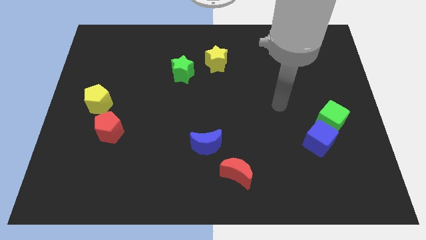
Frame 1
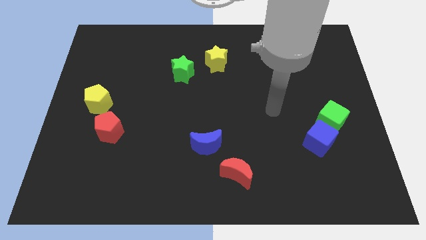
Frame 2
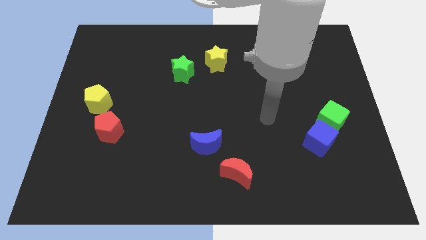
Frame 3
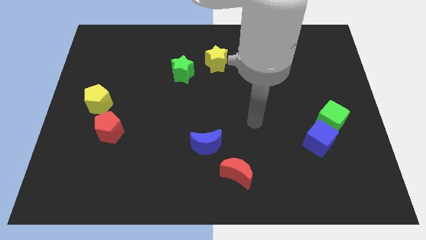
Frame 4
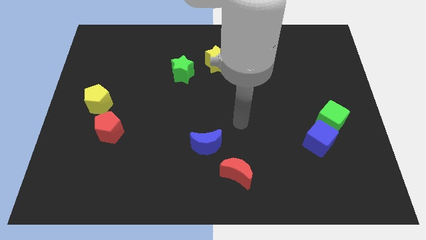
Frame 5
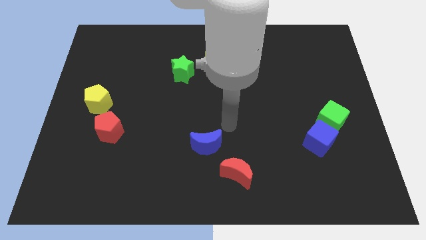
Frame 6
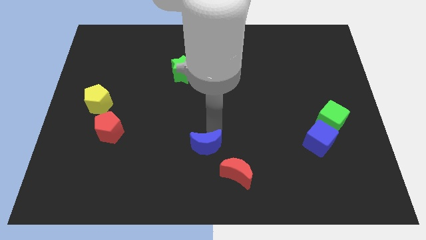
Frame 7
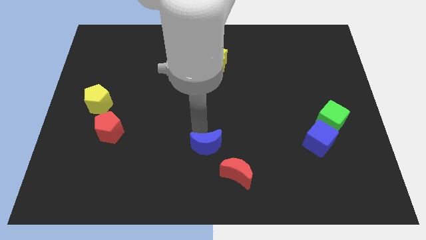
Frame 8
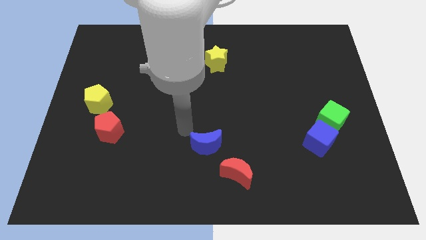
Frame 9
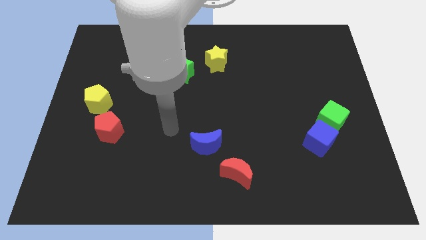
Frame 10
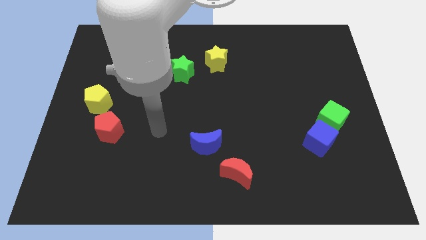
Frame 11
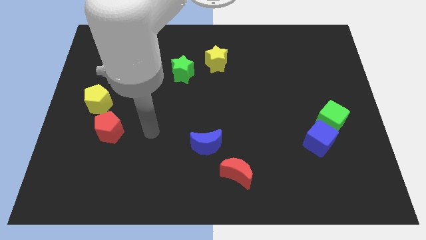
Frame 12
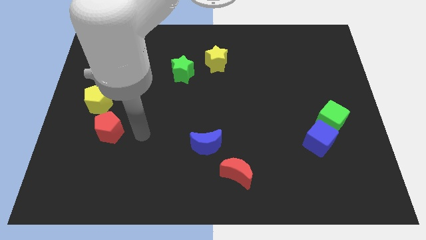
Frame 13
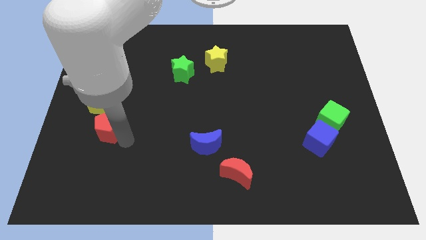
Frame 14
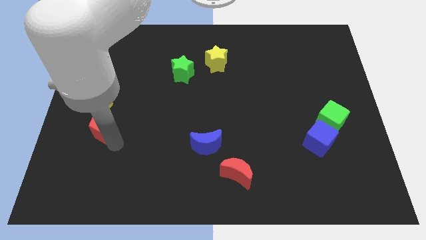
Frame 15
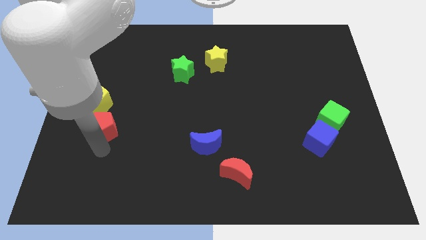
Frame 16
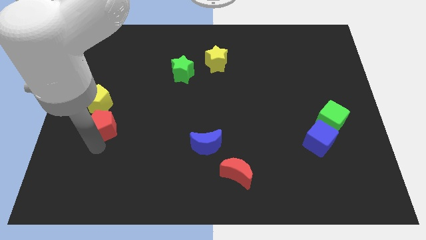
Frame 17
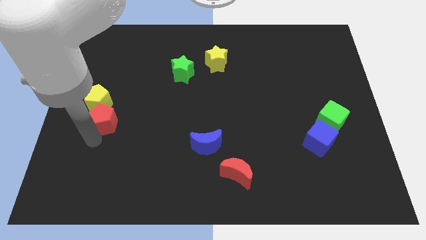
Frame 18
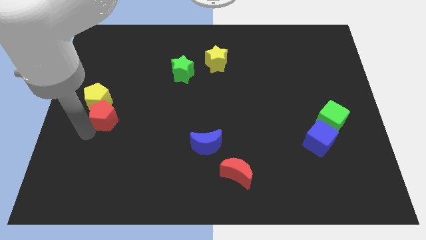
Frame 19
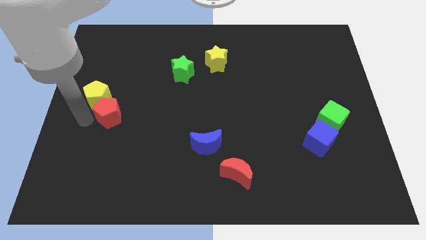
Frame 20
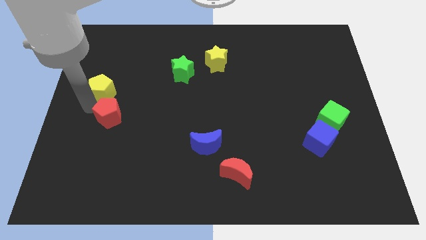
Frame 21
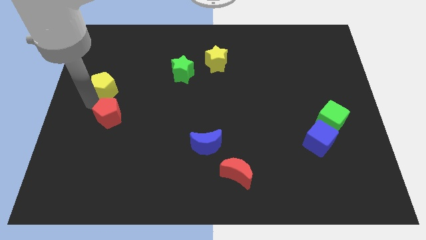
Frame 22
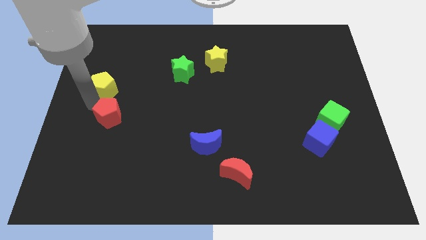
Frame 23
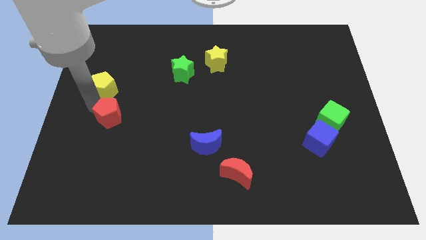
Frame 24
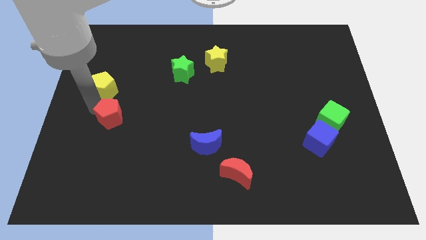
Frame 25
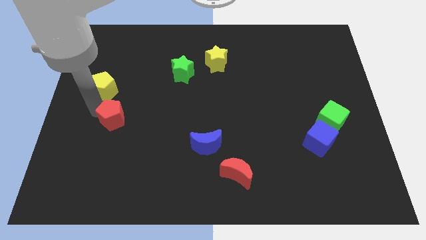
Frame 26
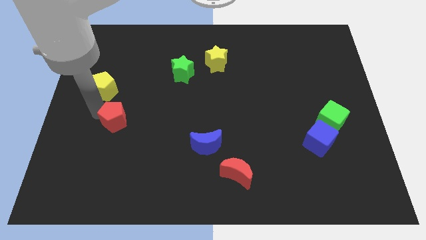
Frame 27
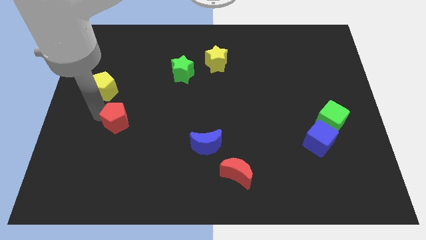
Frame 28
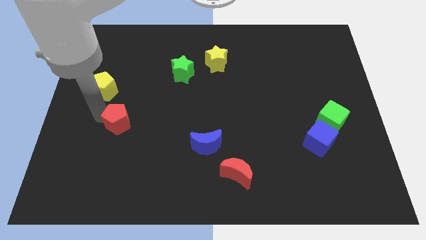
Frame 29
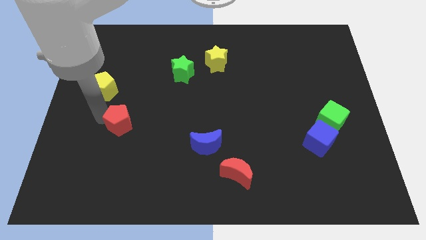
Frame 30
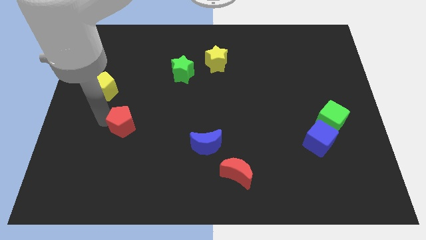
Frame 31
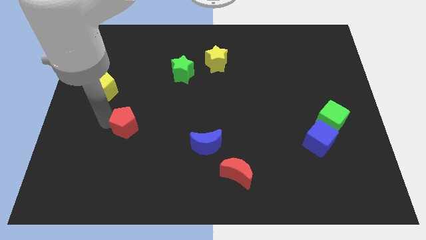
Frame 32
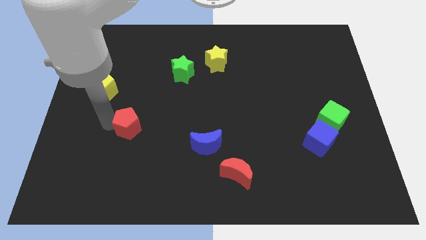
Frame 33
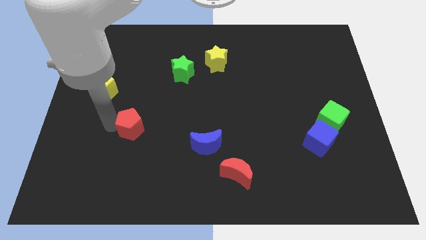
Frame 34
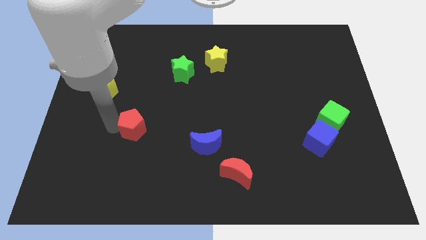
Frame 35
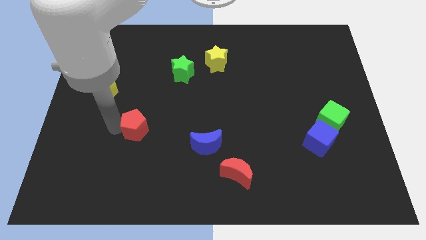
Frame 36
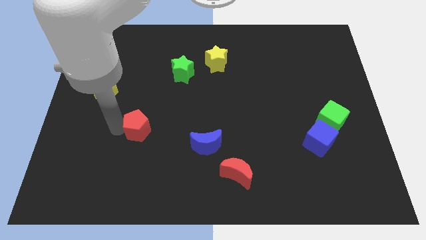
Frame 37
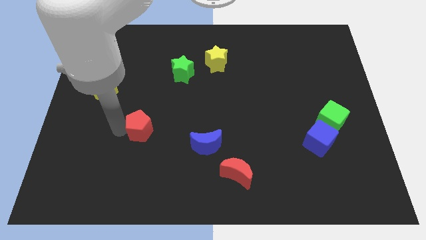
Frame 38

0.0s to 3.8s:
push the red pentagon a little bit to the right

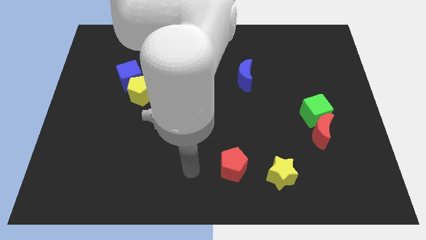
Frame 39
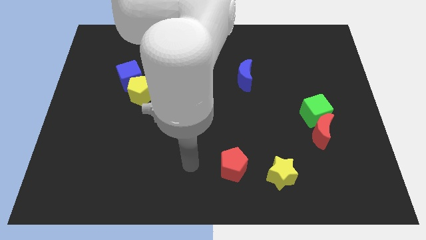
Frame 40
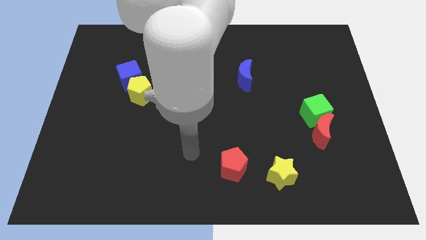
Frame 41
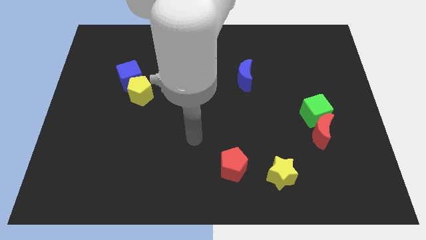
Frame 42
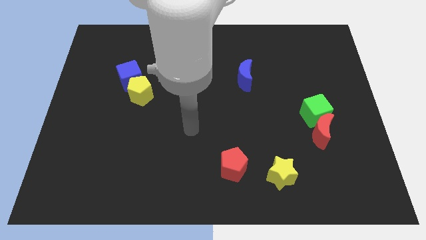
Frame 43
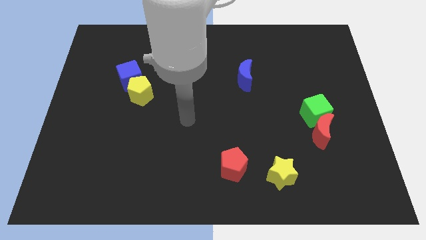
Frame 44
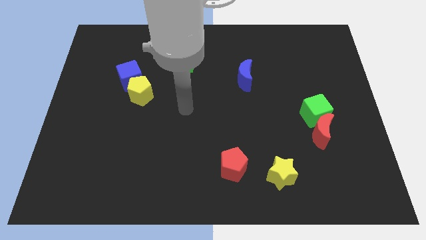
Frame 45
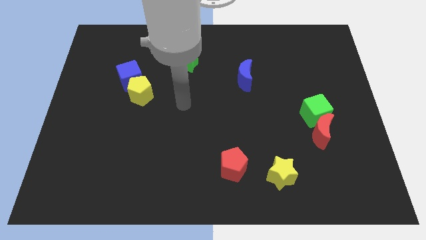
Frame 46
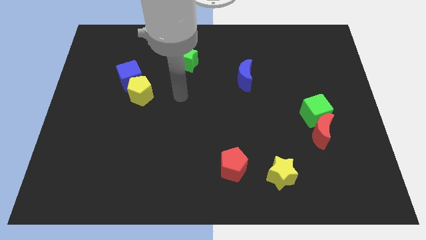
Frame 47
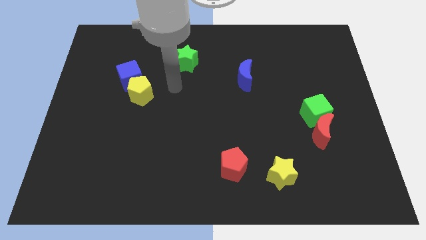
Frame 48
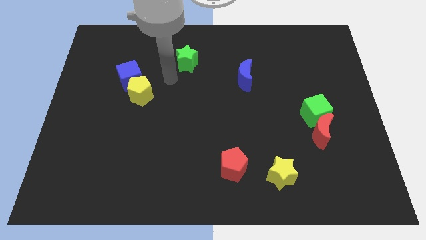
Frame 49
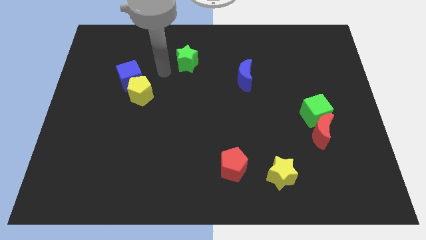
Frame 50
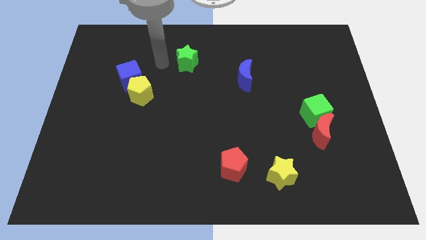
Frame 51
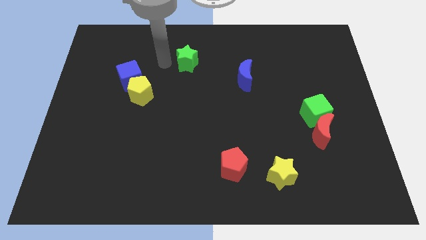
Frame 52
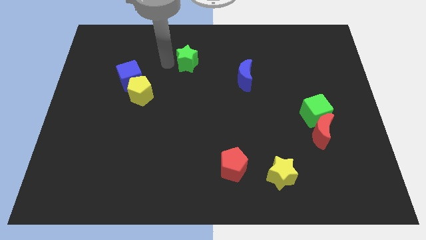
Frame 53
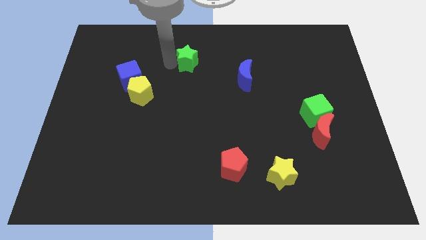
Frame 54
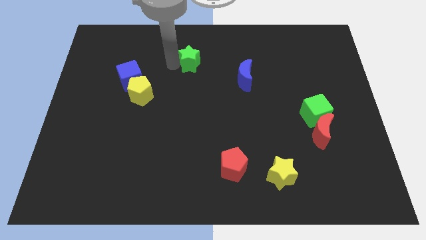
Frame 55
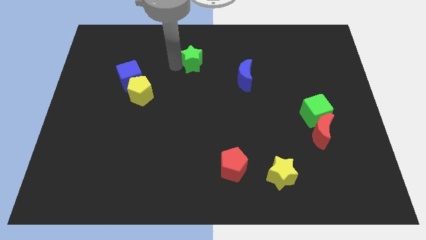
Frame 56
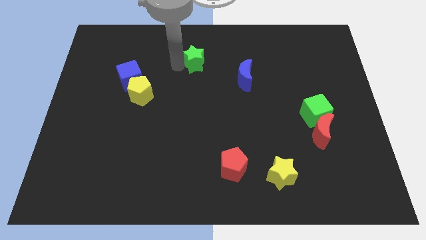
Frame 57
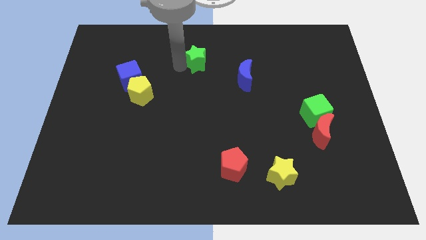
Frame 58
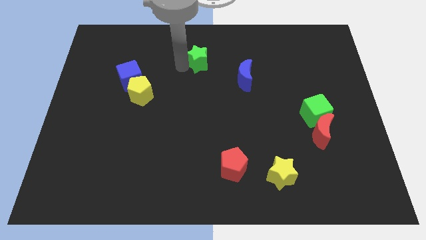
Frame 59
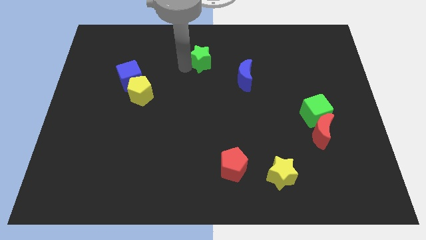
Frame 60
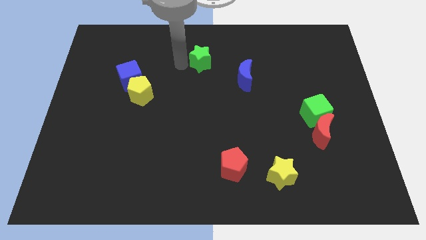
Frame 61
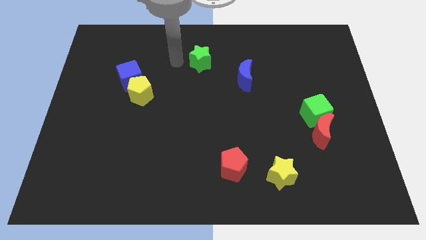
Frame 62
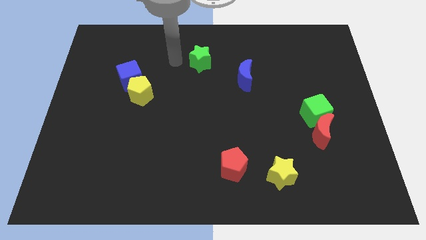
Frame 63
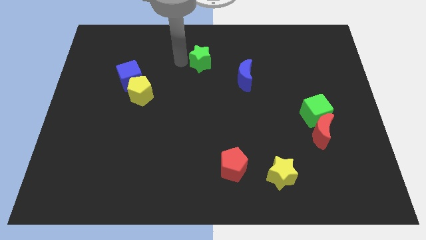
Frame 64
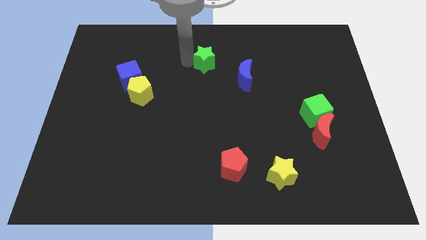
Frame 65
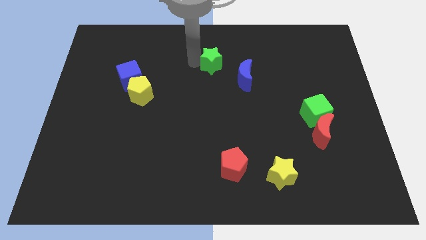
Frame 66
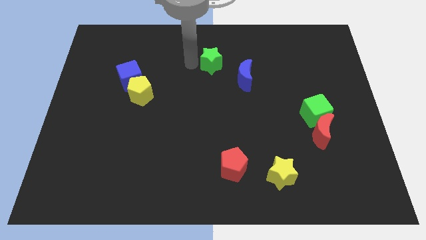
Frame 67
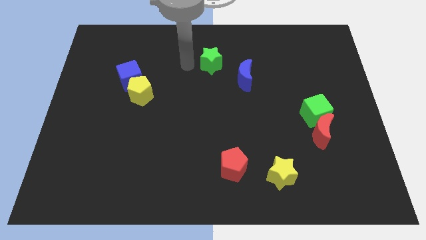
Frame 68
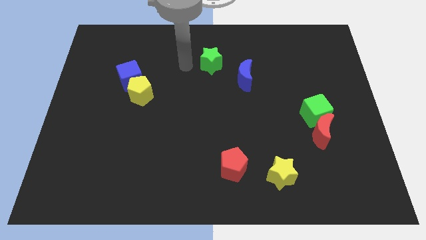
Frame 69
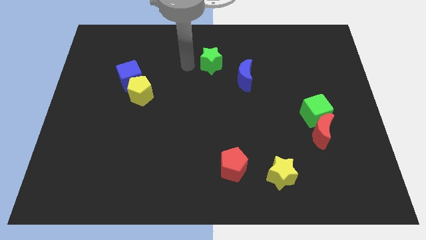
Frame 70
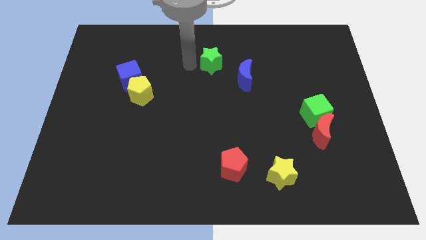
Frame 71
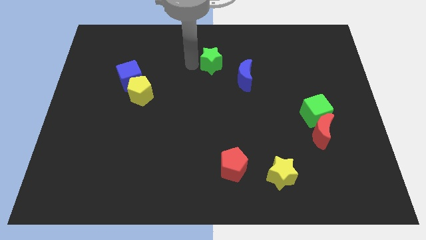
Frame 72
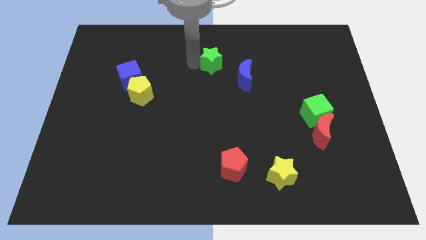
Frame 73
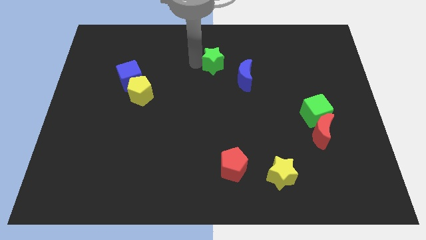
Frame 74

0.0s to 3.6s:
move the green star somewhat to the right
